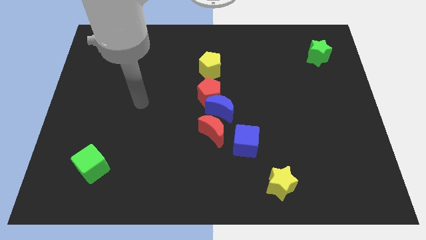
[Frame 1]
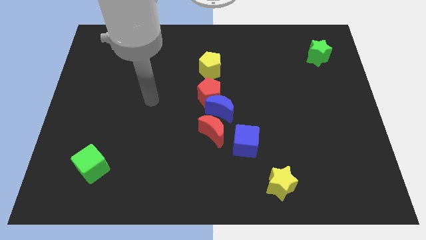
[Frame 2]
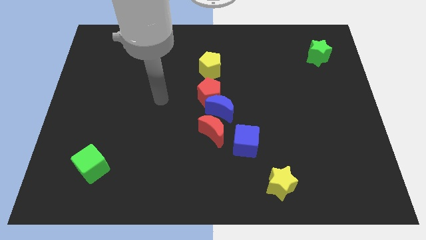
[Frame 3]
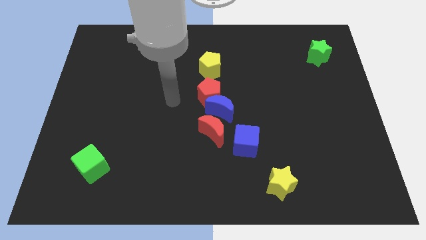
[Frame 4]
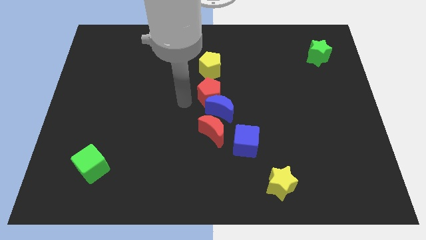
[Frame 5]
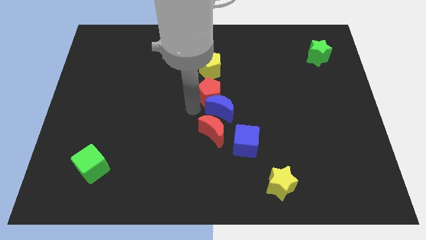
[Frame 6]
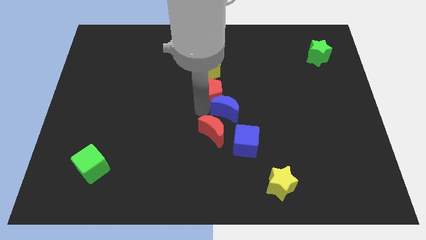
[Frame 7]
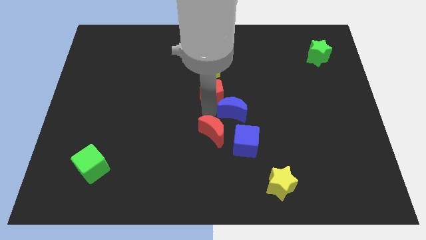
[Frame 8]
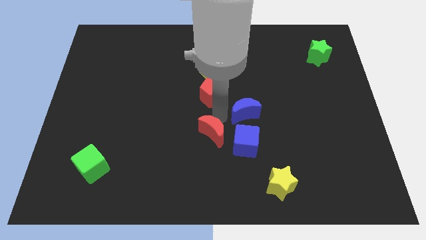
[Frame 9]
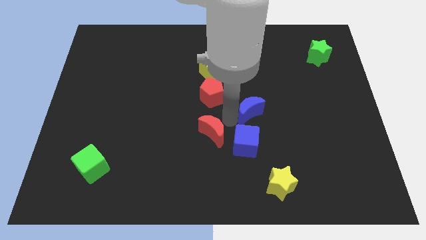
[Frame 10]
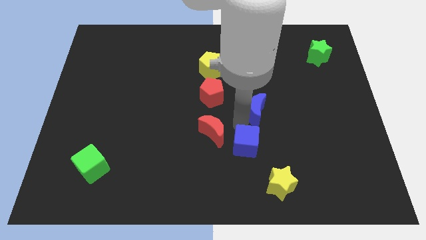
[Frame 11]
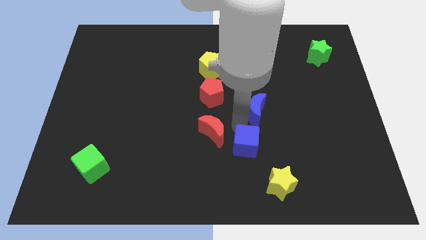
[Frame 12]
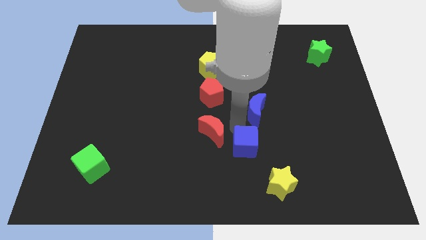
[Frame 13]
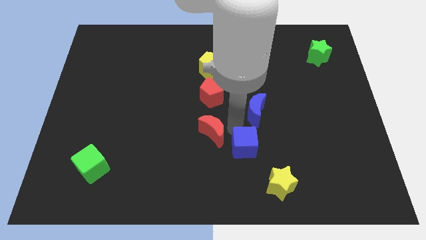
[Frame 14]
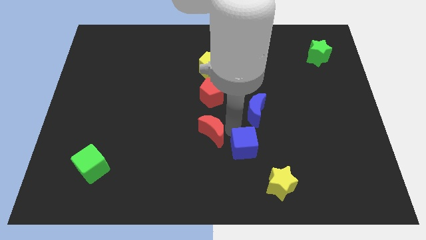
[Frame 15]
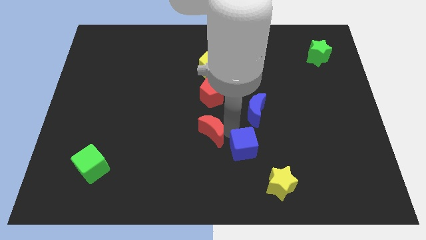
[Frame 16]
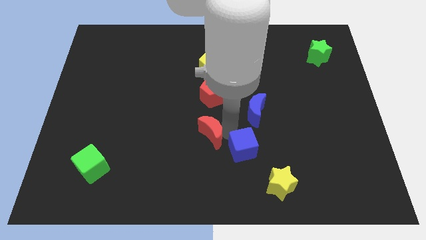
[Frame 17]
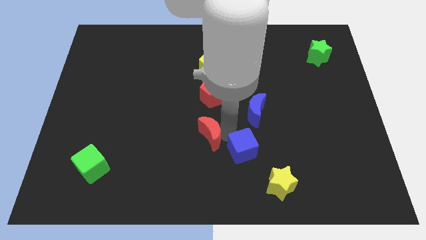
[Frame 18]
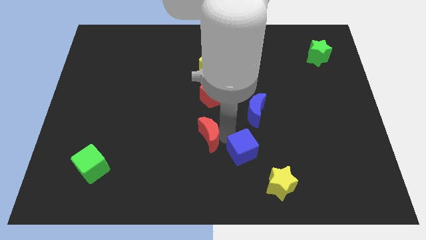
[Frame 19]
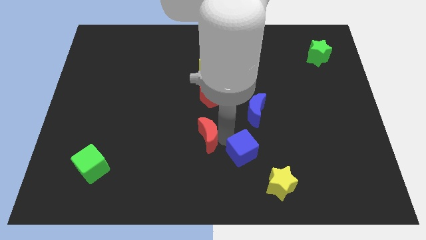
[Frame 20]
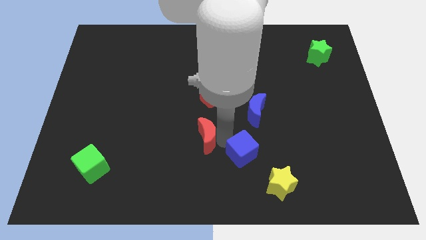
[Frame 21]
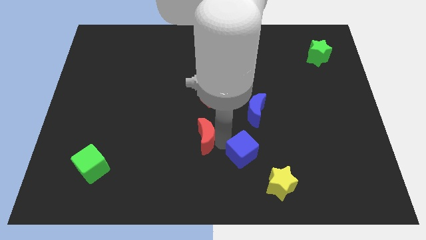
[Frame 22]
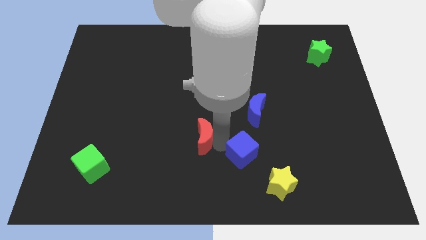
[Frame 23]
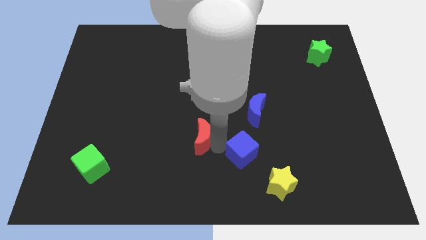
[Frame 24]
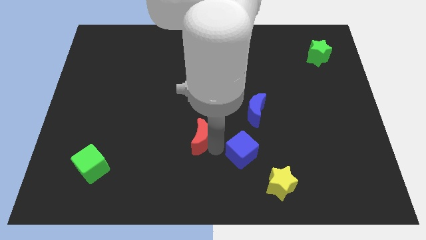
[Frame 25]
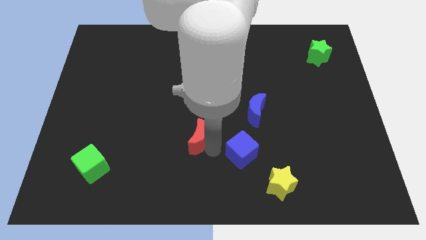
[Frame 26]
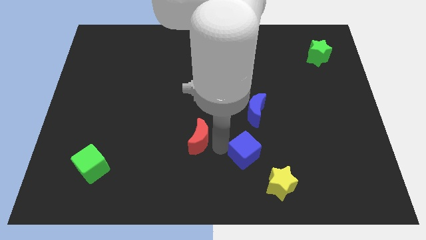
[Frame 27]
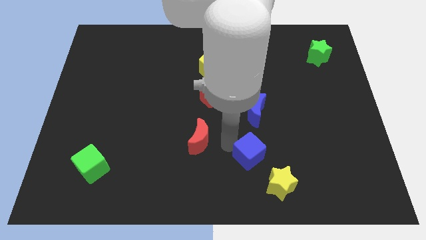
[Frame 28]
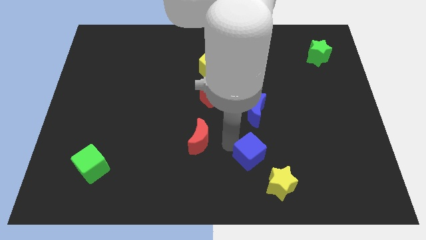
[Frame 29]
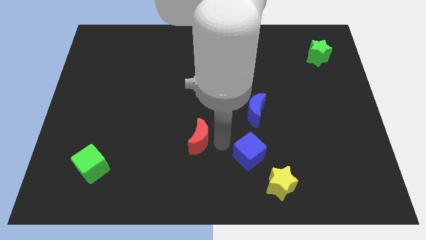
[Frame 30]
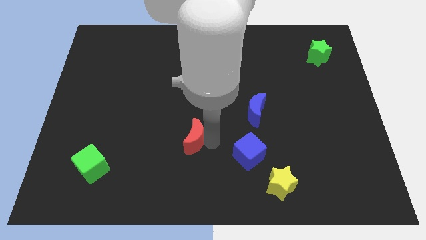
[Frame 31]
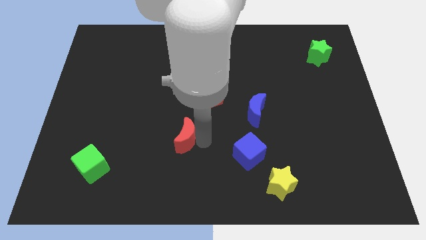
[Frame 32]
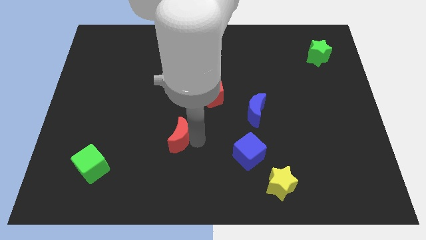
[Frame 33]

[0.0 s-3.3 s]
push the red moon a bit left

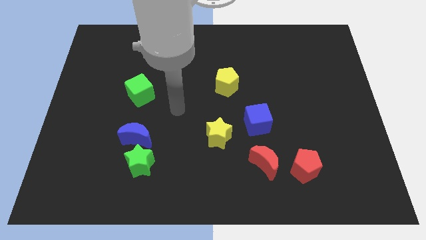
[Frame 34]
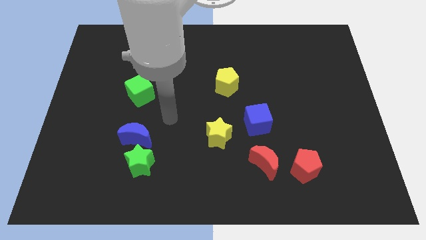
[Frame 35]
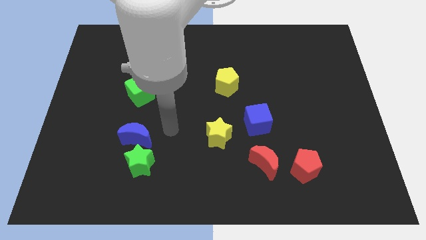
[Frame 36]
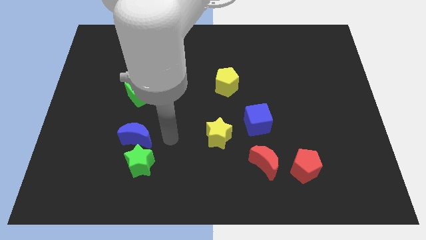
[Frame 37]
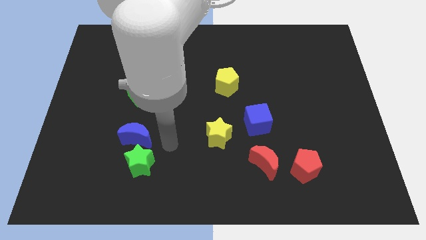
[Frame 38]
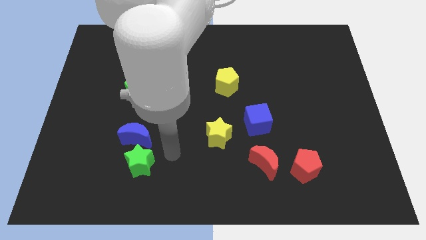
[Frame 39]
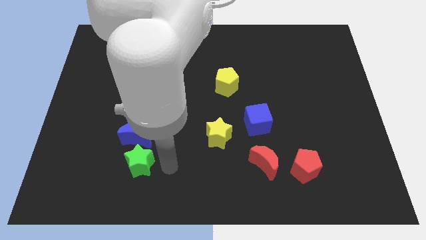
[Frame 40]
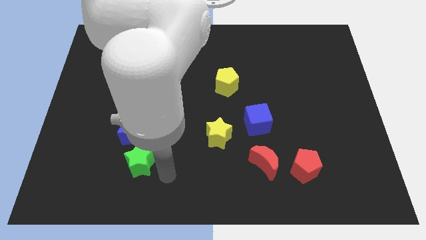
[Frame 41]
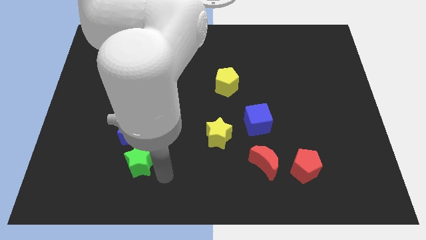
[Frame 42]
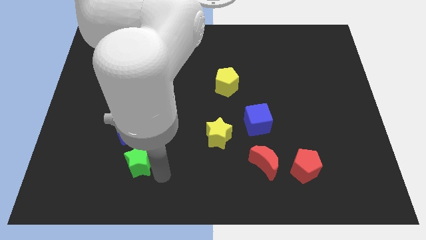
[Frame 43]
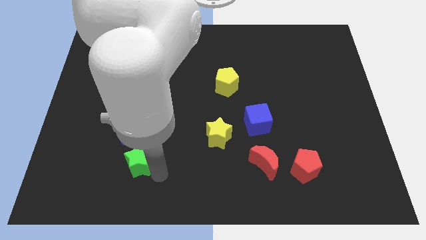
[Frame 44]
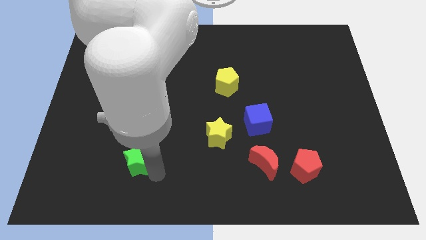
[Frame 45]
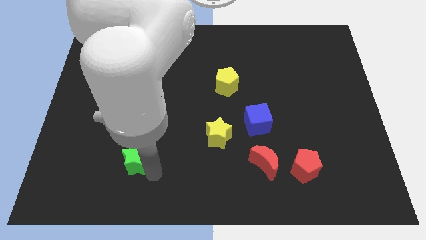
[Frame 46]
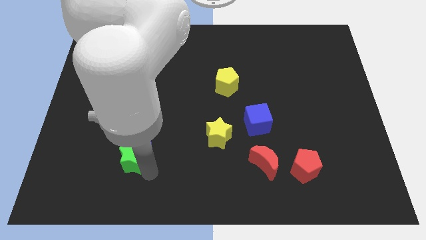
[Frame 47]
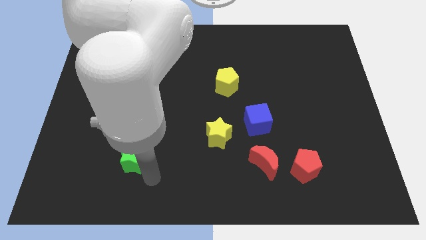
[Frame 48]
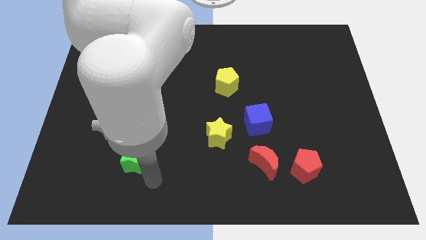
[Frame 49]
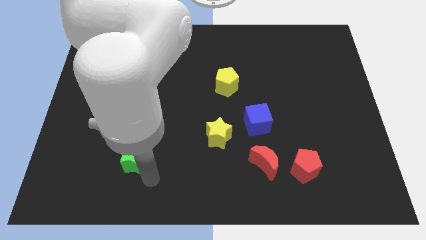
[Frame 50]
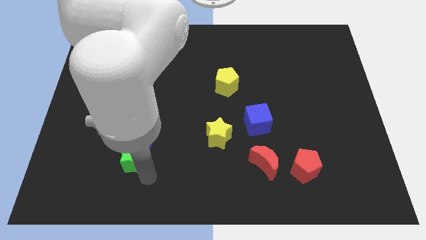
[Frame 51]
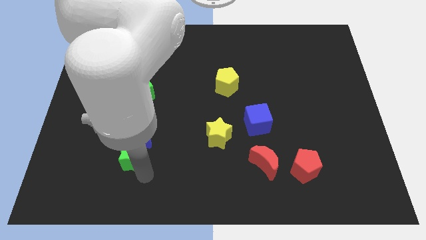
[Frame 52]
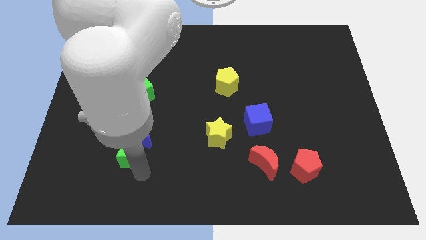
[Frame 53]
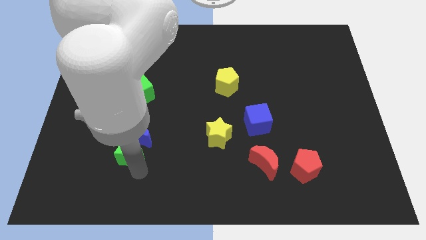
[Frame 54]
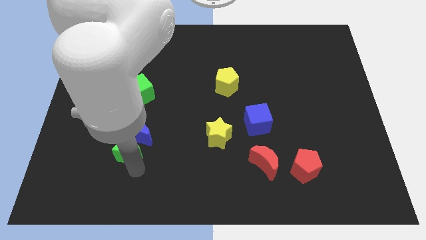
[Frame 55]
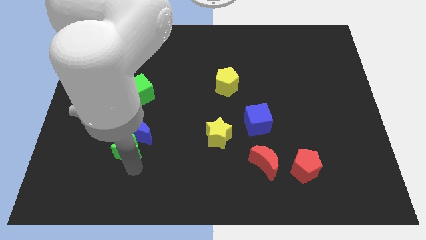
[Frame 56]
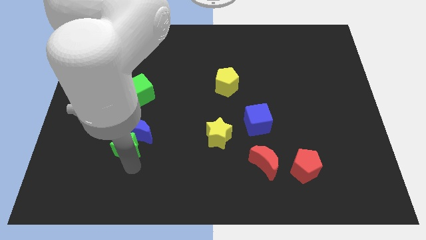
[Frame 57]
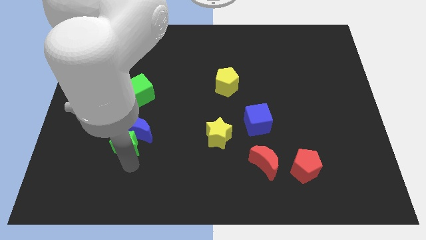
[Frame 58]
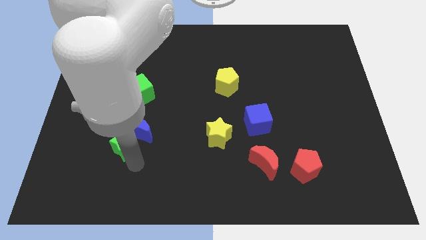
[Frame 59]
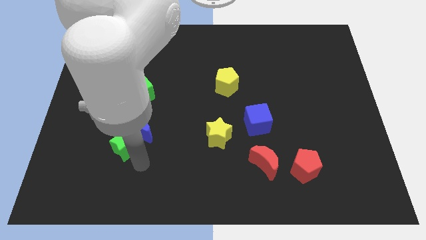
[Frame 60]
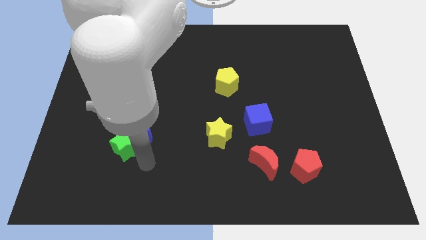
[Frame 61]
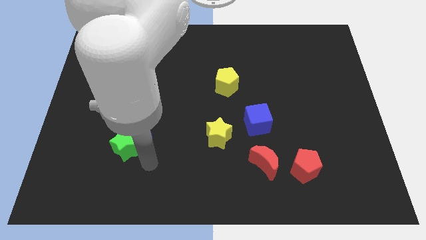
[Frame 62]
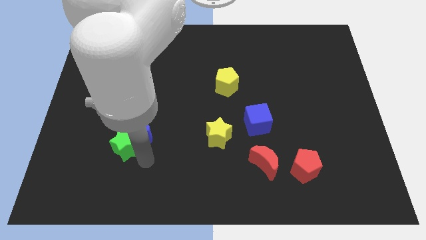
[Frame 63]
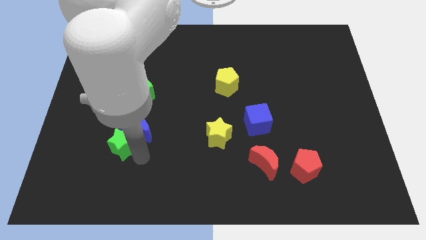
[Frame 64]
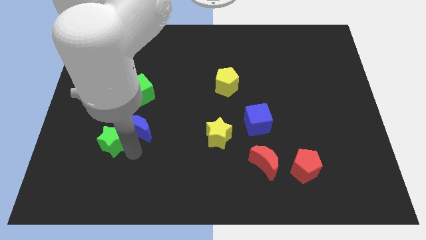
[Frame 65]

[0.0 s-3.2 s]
slightly slide the green star diagonally up and to the left

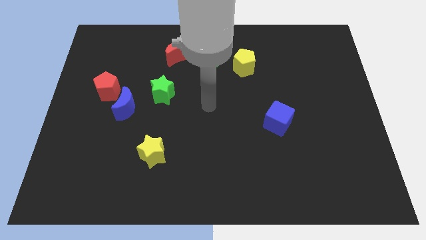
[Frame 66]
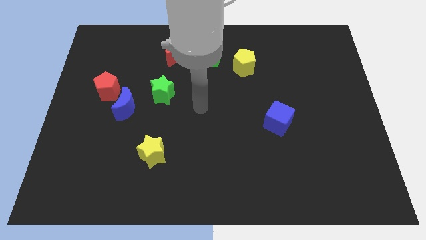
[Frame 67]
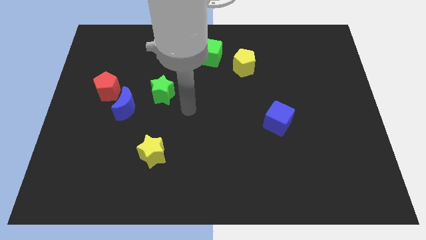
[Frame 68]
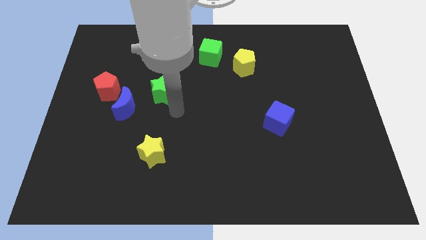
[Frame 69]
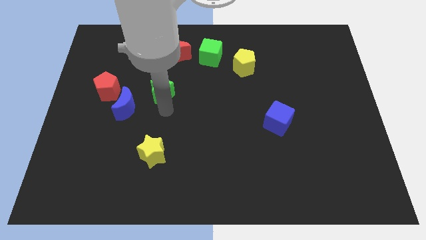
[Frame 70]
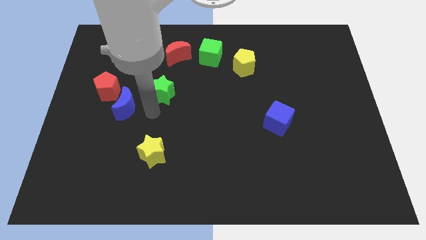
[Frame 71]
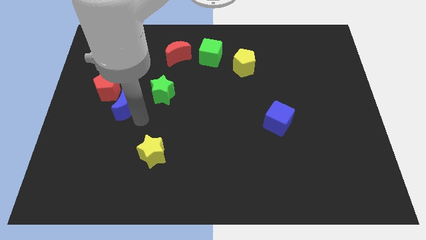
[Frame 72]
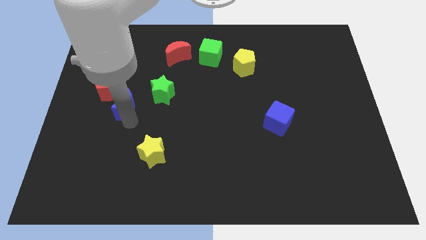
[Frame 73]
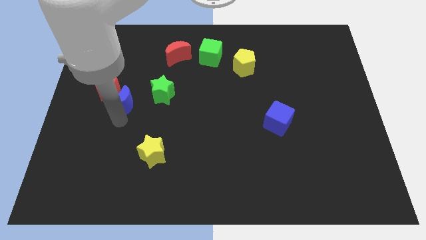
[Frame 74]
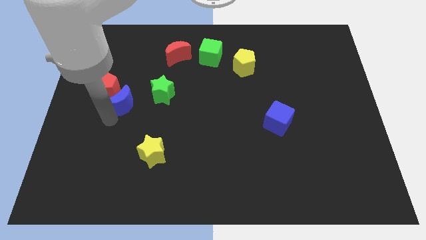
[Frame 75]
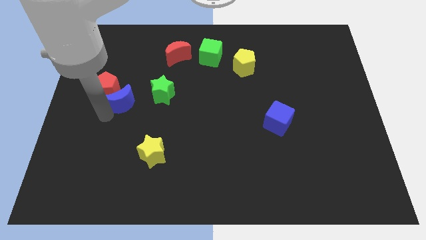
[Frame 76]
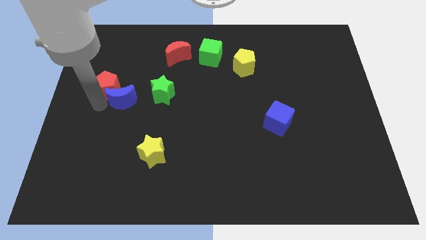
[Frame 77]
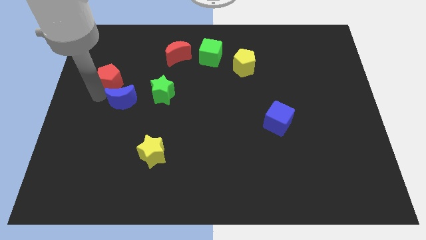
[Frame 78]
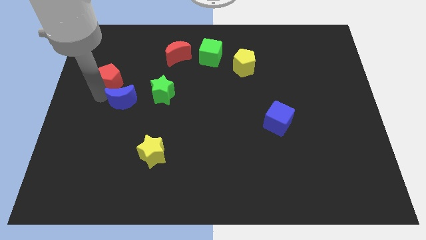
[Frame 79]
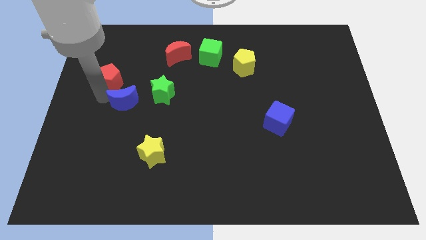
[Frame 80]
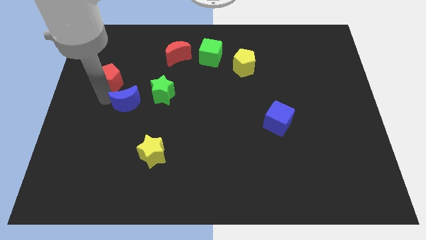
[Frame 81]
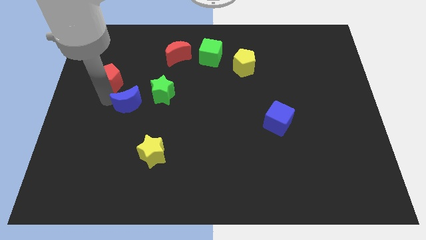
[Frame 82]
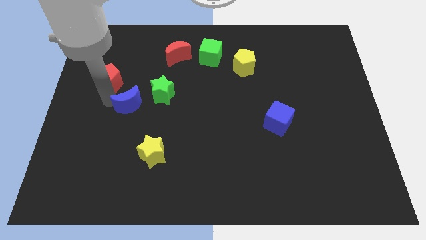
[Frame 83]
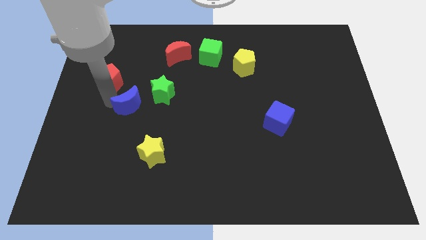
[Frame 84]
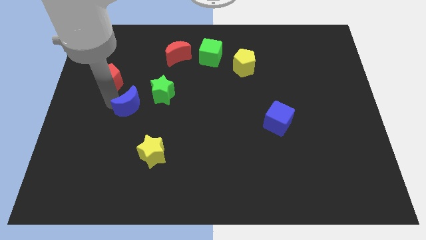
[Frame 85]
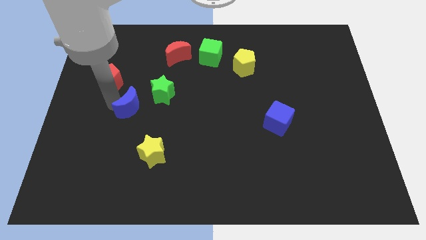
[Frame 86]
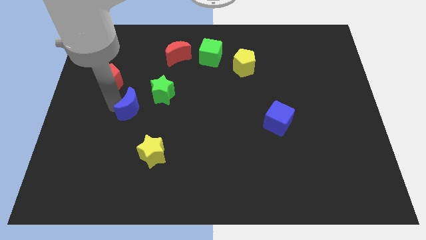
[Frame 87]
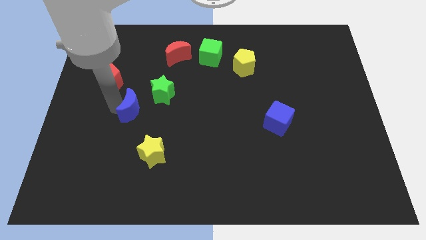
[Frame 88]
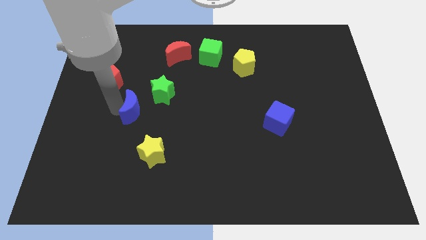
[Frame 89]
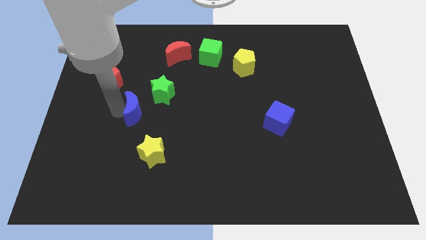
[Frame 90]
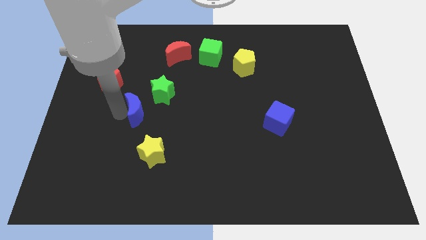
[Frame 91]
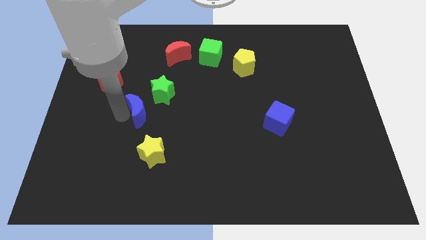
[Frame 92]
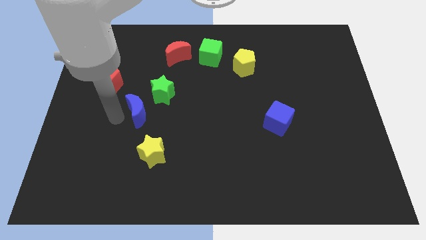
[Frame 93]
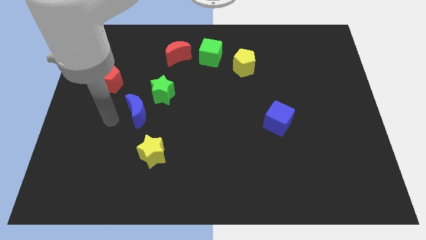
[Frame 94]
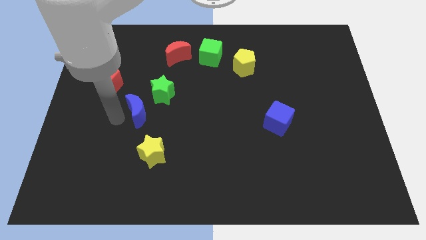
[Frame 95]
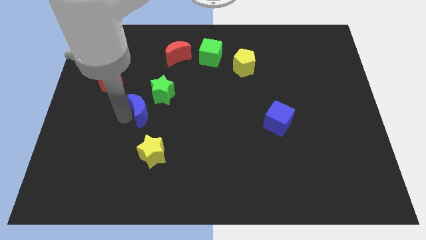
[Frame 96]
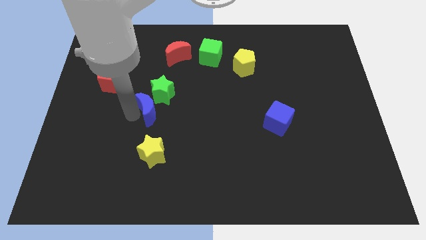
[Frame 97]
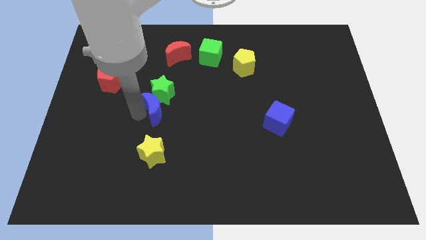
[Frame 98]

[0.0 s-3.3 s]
push the blue moon to the right slightly
